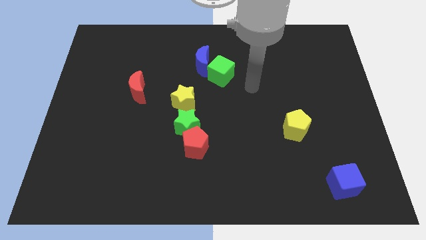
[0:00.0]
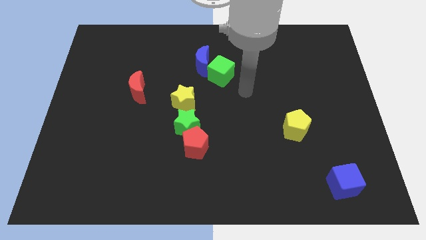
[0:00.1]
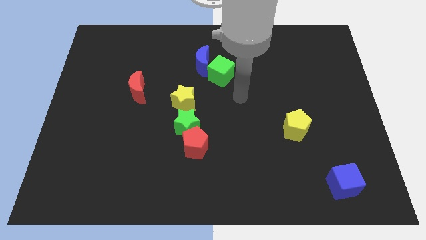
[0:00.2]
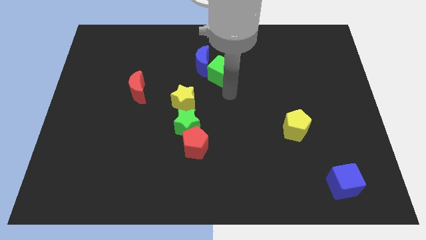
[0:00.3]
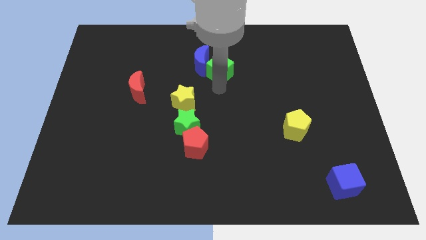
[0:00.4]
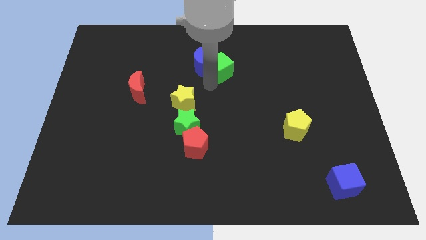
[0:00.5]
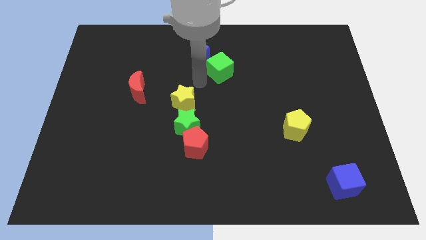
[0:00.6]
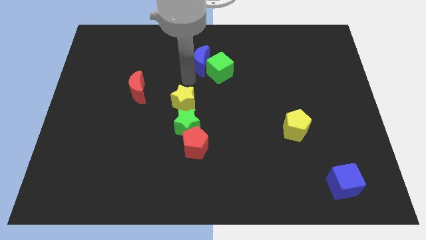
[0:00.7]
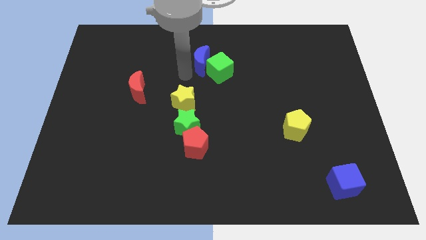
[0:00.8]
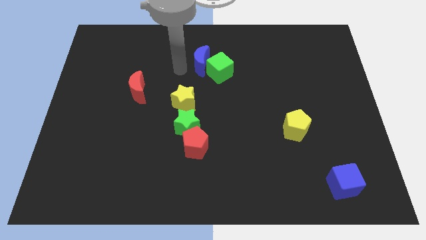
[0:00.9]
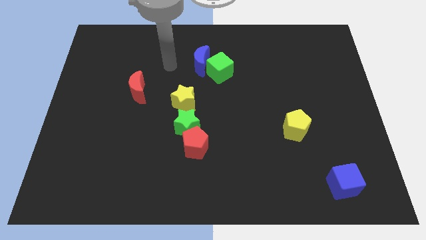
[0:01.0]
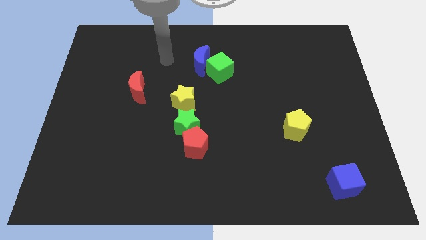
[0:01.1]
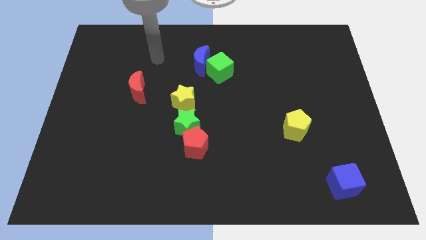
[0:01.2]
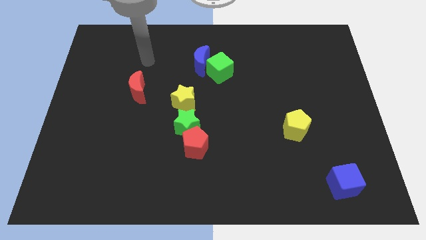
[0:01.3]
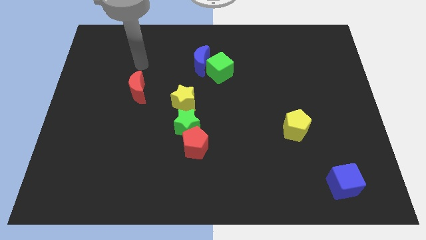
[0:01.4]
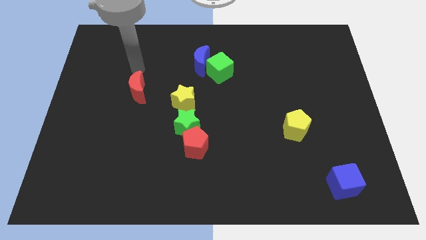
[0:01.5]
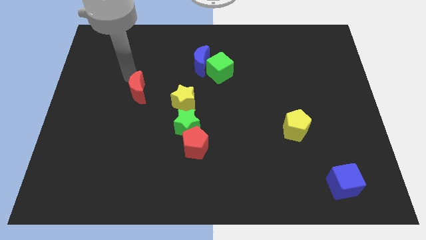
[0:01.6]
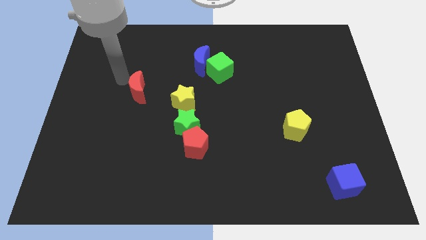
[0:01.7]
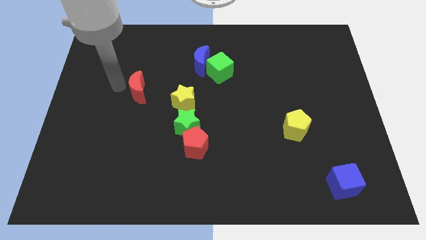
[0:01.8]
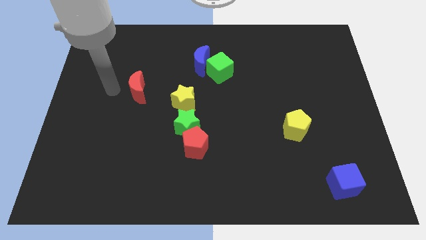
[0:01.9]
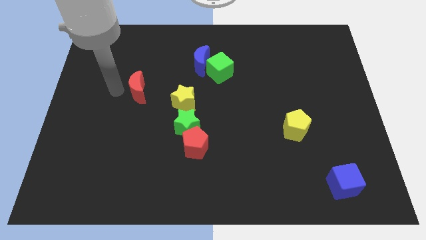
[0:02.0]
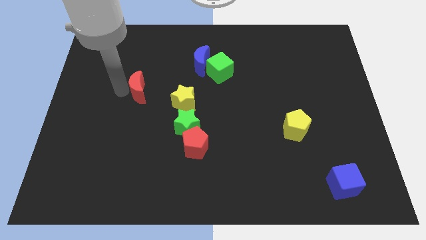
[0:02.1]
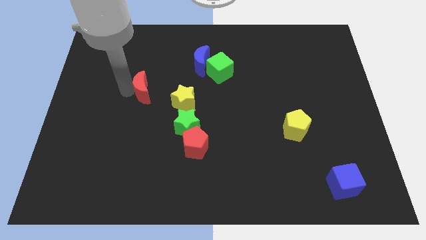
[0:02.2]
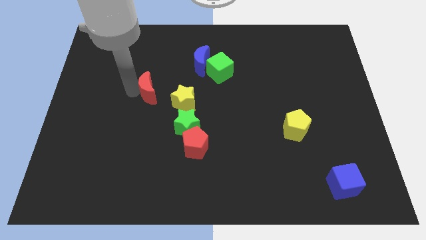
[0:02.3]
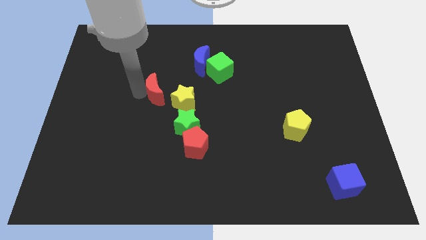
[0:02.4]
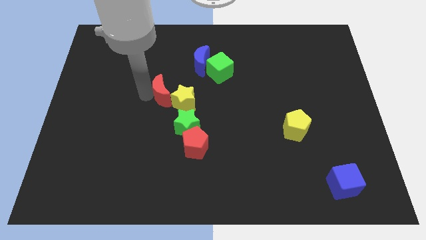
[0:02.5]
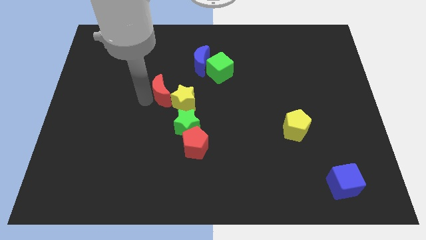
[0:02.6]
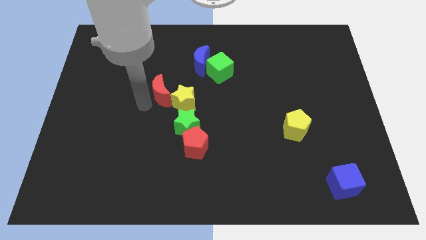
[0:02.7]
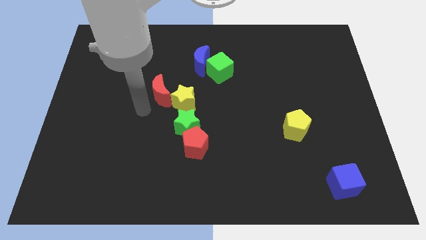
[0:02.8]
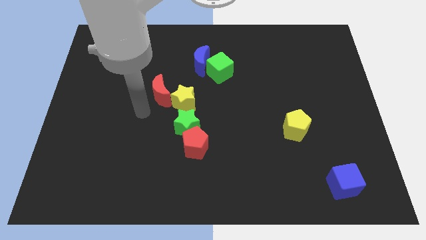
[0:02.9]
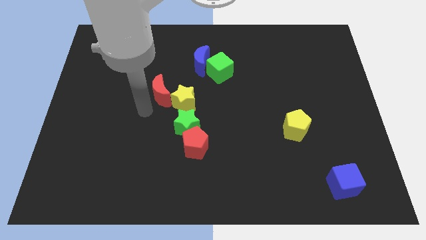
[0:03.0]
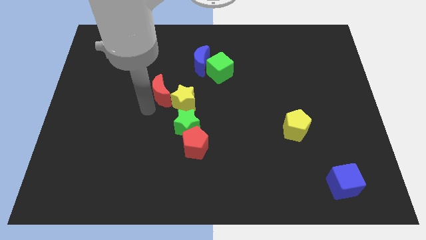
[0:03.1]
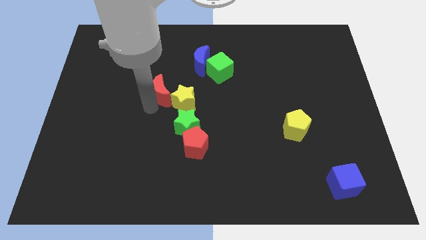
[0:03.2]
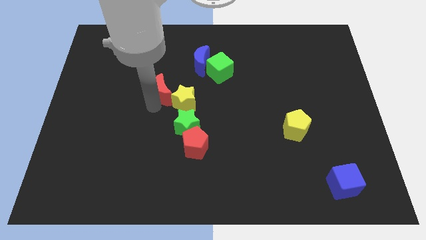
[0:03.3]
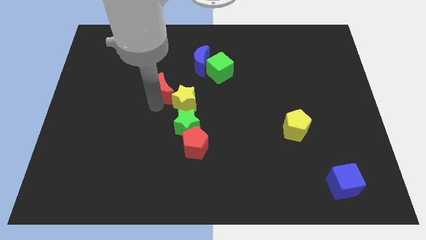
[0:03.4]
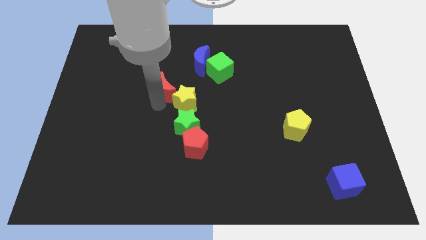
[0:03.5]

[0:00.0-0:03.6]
push the red moon to the right slightly

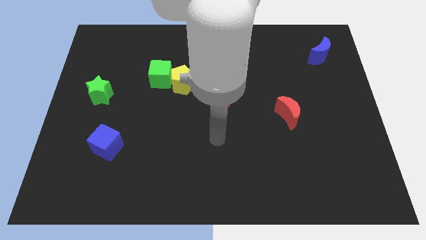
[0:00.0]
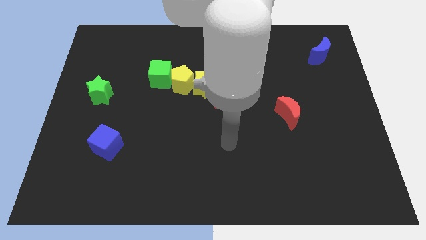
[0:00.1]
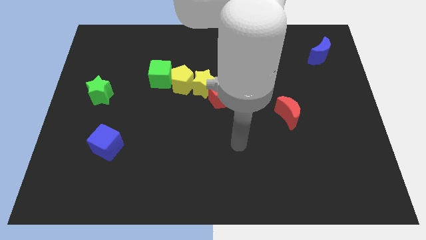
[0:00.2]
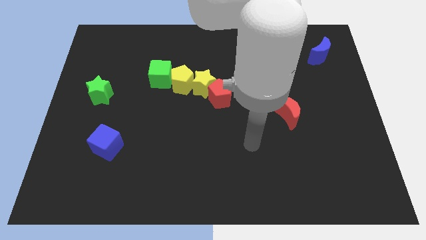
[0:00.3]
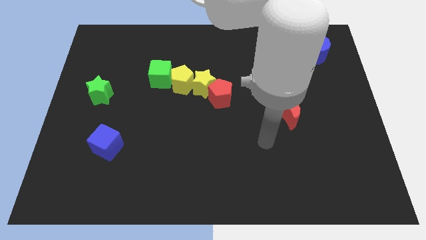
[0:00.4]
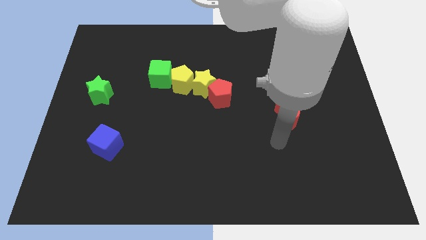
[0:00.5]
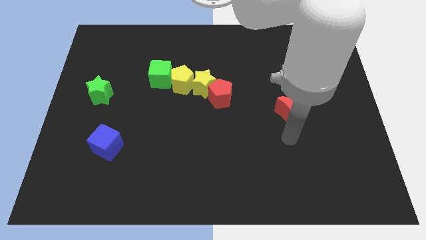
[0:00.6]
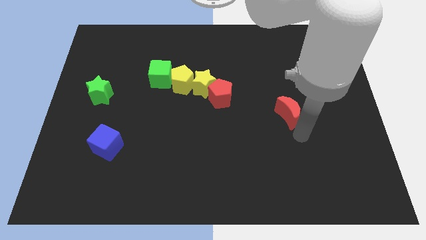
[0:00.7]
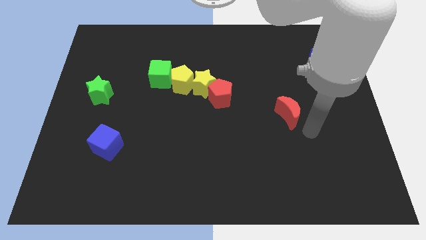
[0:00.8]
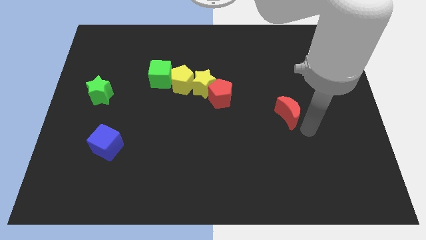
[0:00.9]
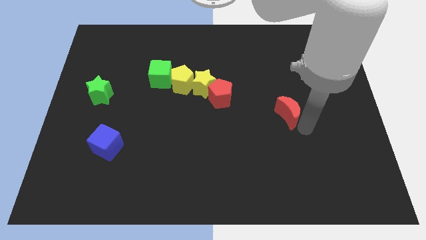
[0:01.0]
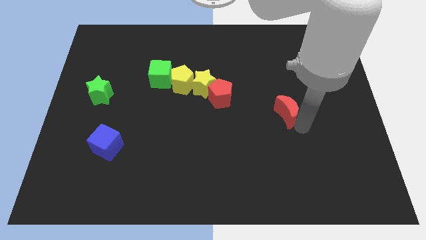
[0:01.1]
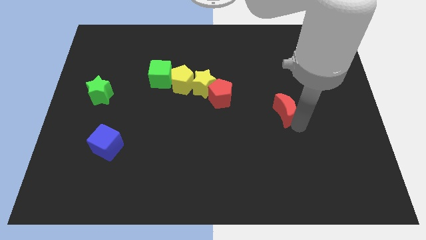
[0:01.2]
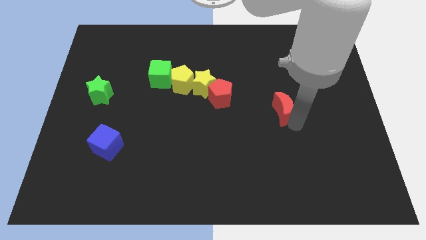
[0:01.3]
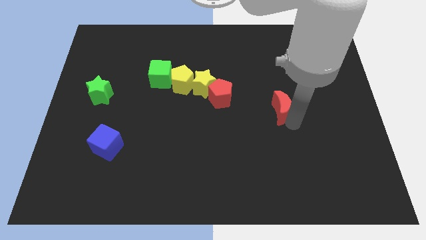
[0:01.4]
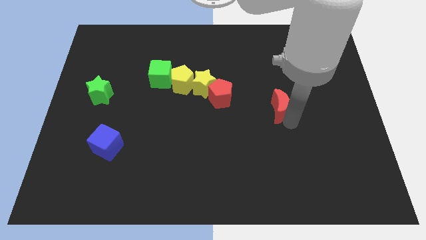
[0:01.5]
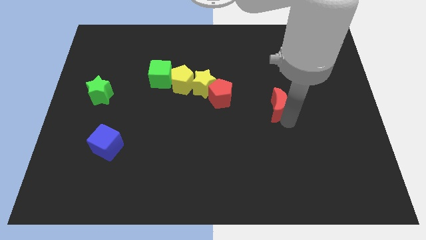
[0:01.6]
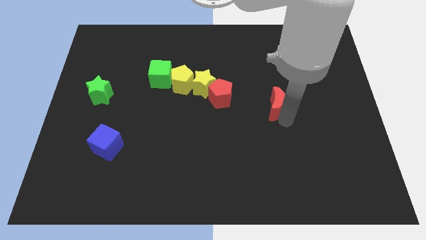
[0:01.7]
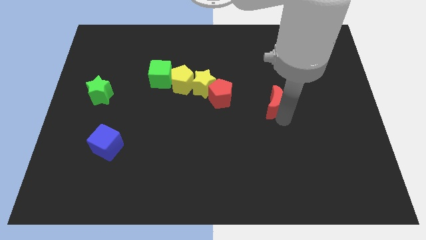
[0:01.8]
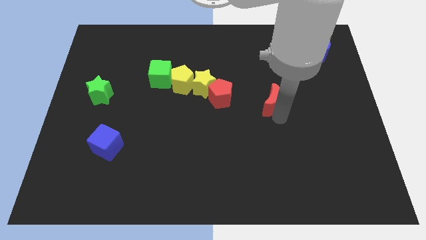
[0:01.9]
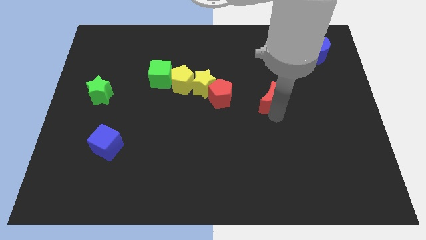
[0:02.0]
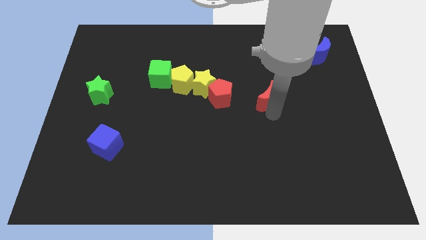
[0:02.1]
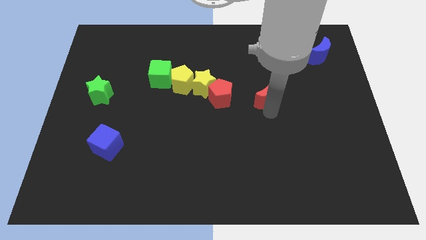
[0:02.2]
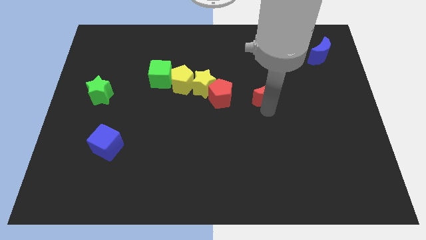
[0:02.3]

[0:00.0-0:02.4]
push the red moon a little bit upwards and to the left

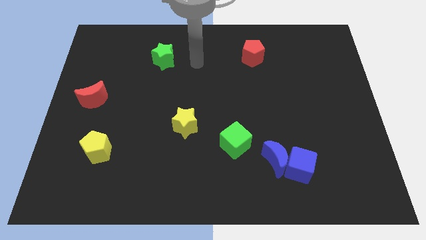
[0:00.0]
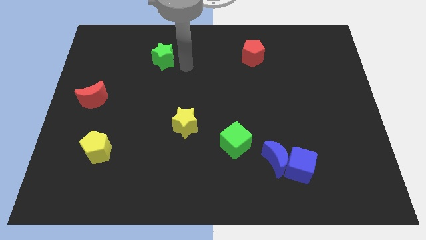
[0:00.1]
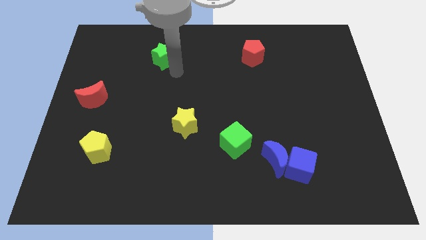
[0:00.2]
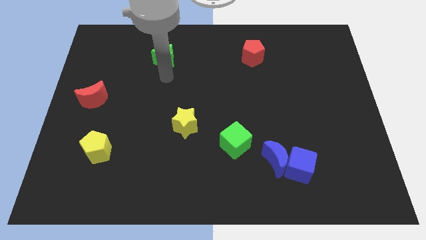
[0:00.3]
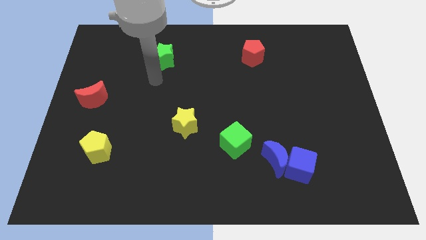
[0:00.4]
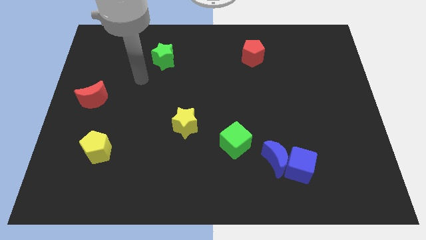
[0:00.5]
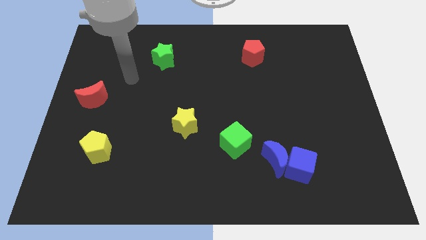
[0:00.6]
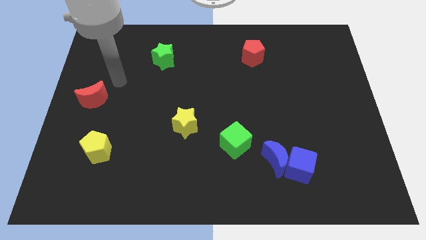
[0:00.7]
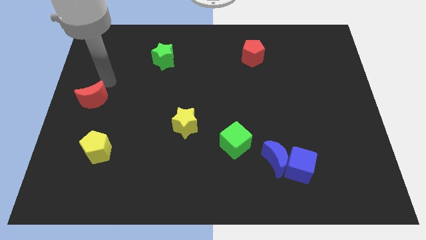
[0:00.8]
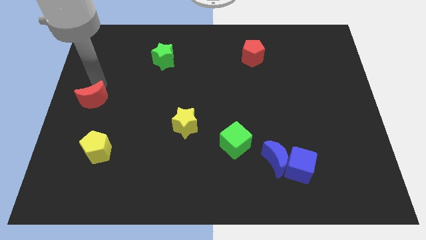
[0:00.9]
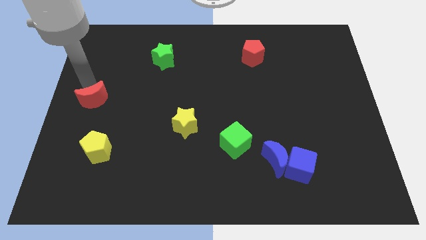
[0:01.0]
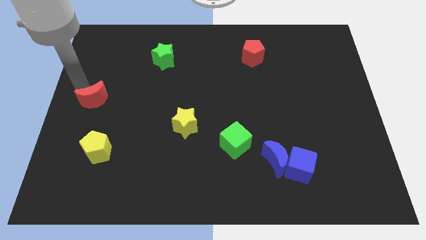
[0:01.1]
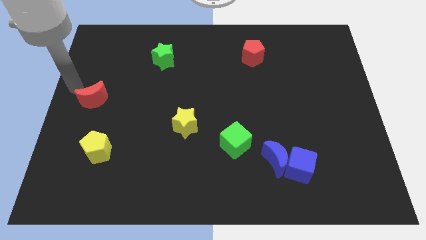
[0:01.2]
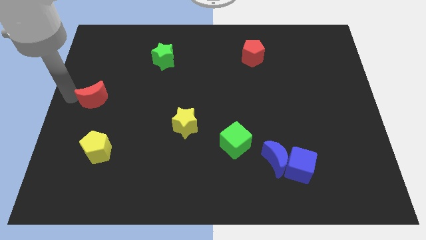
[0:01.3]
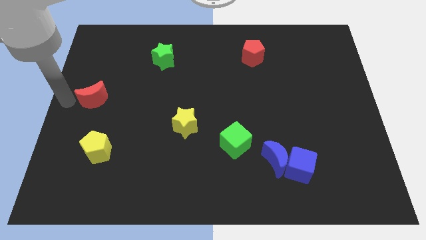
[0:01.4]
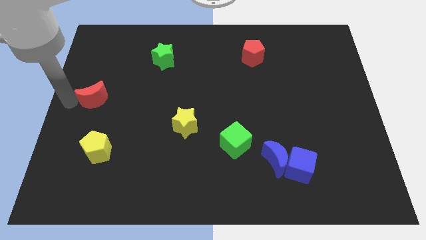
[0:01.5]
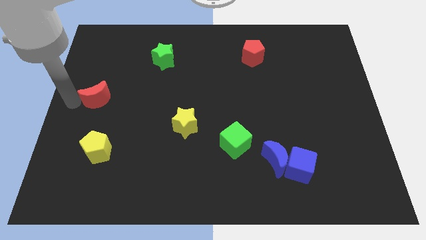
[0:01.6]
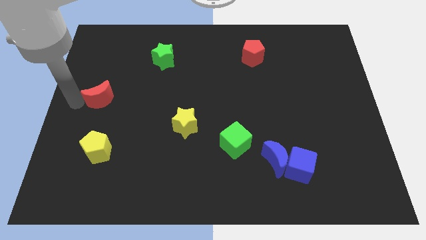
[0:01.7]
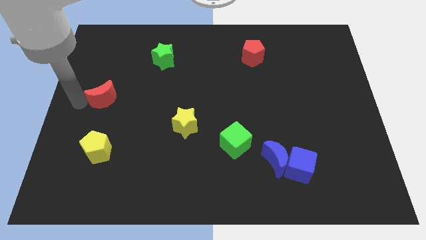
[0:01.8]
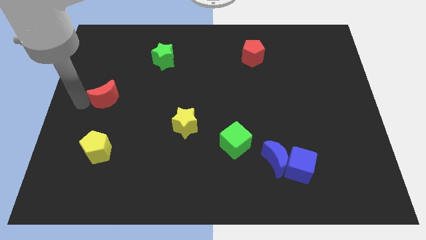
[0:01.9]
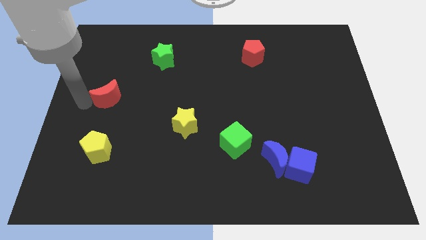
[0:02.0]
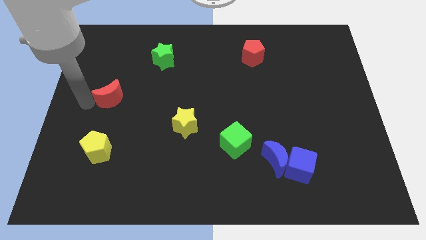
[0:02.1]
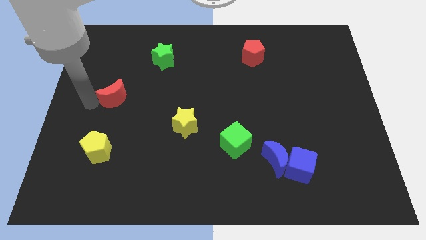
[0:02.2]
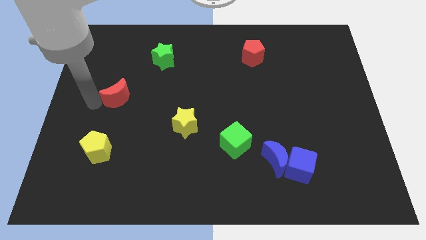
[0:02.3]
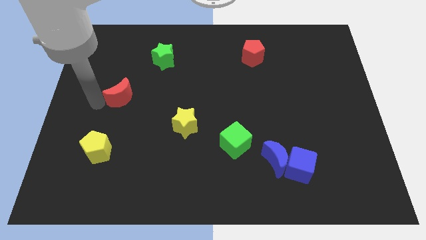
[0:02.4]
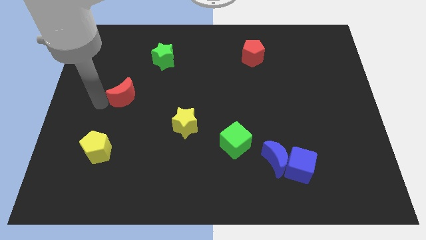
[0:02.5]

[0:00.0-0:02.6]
slide the red moon somewhat to the right
